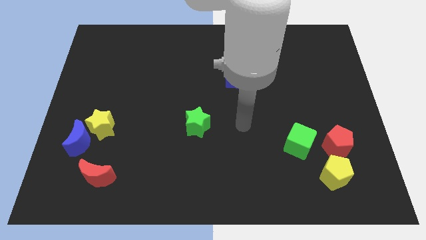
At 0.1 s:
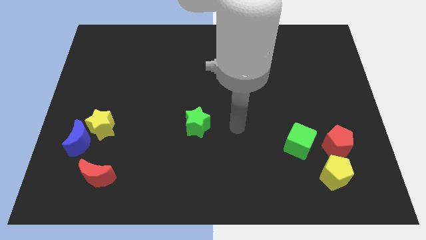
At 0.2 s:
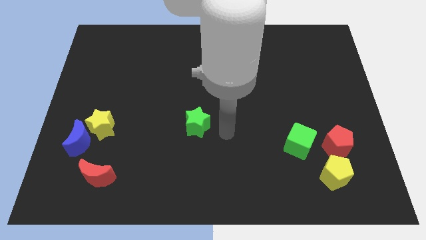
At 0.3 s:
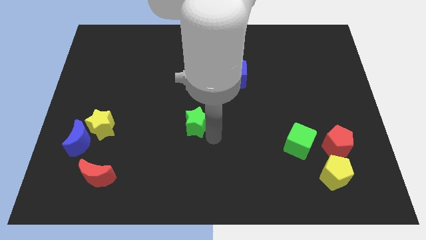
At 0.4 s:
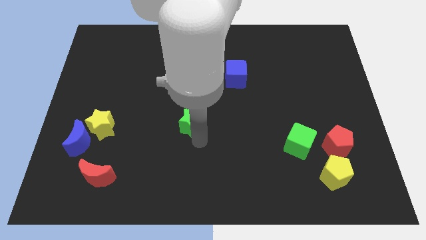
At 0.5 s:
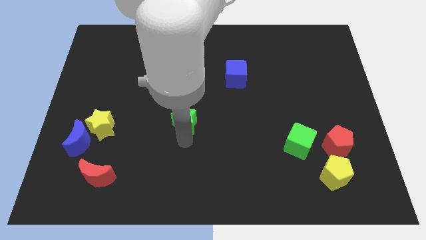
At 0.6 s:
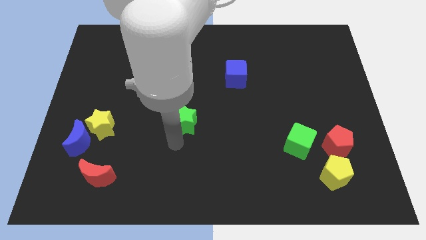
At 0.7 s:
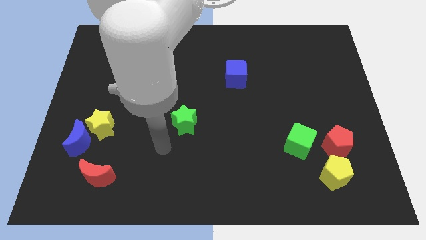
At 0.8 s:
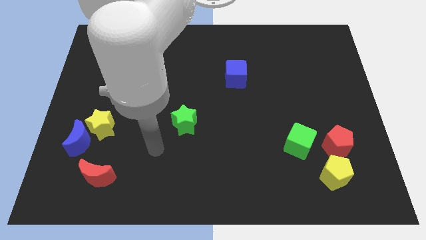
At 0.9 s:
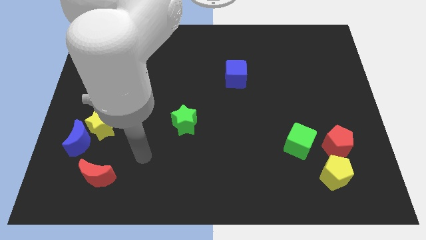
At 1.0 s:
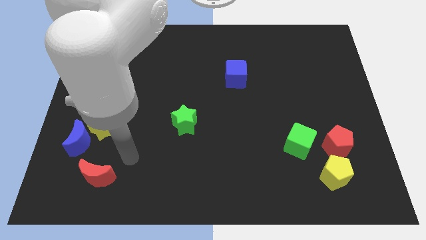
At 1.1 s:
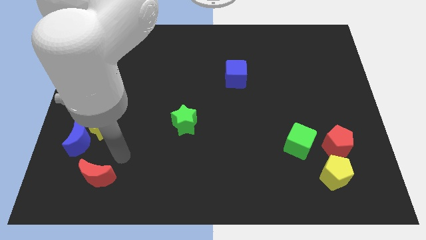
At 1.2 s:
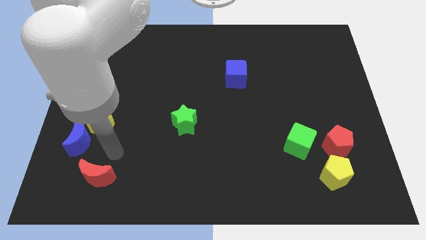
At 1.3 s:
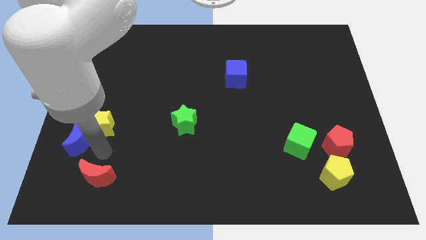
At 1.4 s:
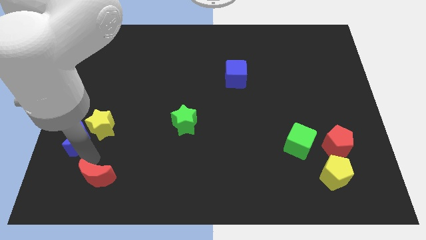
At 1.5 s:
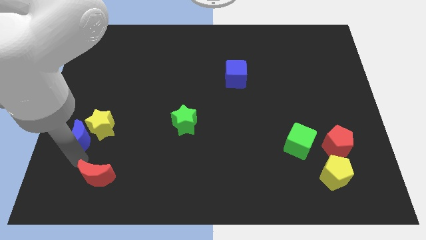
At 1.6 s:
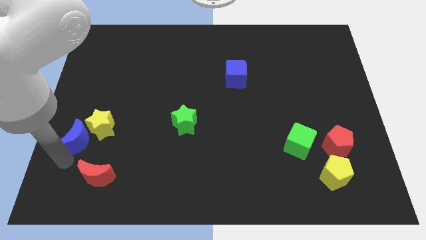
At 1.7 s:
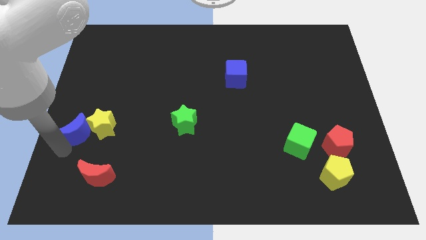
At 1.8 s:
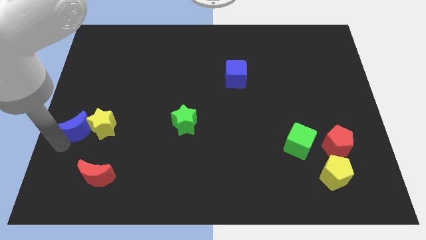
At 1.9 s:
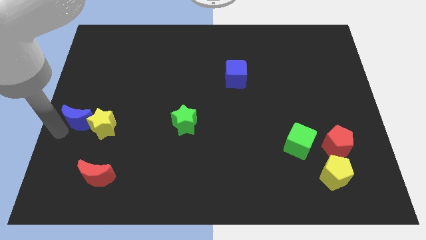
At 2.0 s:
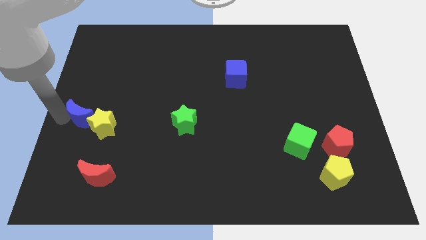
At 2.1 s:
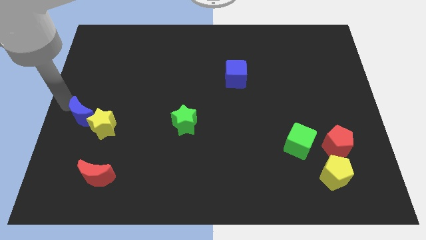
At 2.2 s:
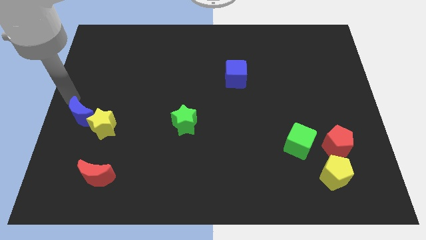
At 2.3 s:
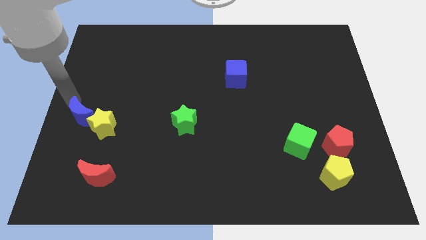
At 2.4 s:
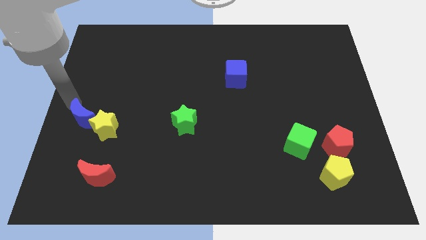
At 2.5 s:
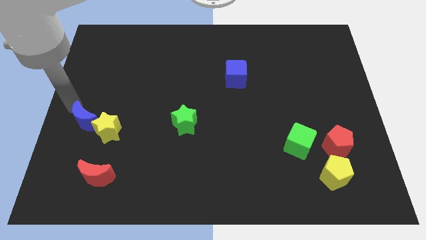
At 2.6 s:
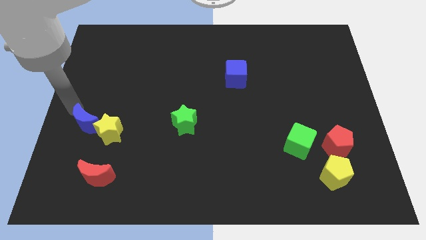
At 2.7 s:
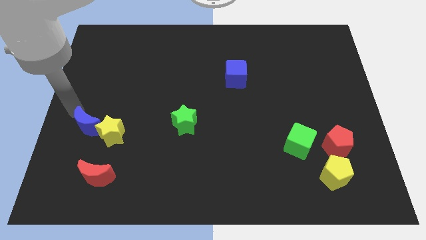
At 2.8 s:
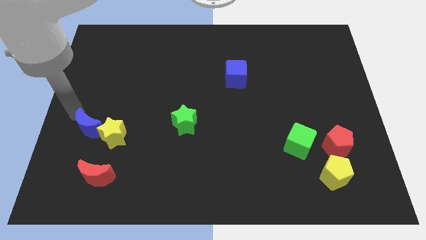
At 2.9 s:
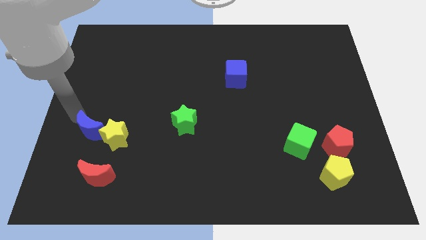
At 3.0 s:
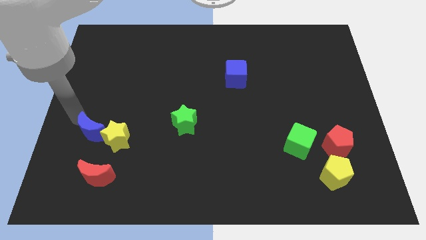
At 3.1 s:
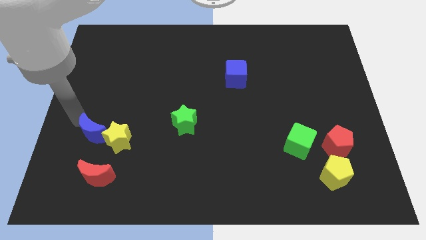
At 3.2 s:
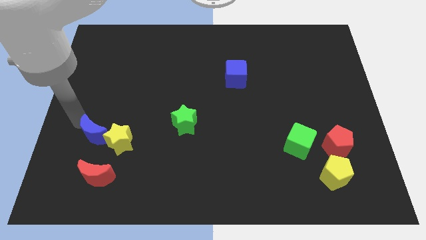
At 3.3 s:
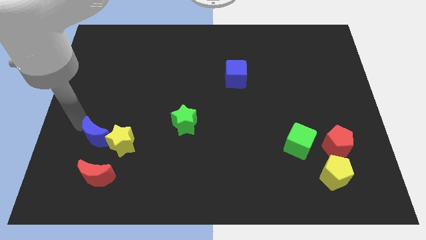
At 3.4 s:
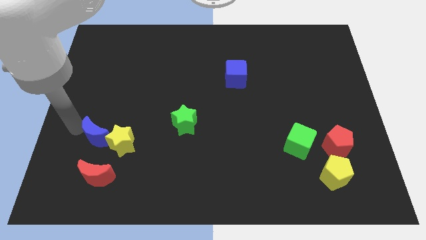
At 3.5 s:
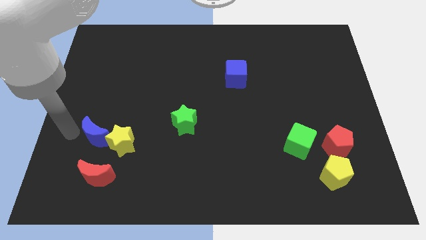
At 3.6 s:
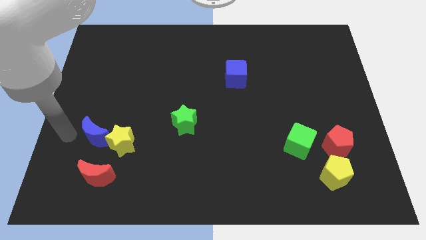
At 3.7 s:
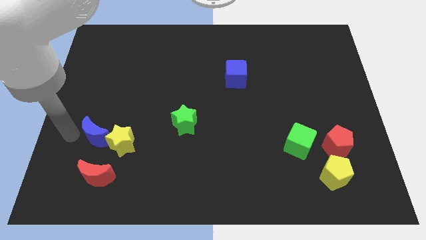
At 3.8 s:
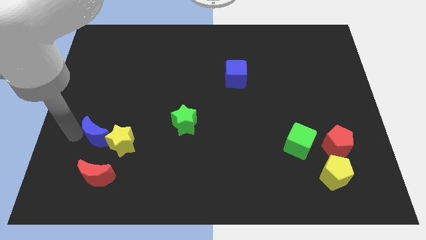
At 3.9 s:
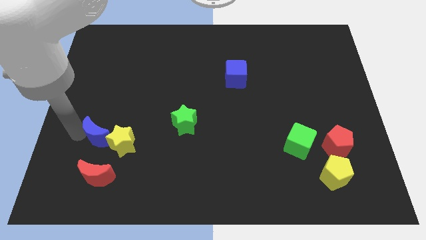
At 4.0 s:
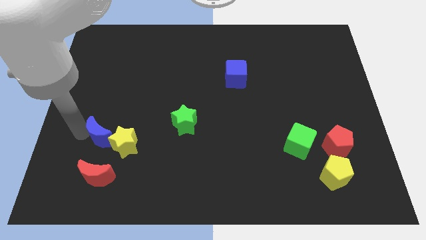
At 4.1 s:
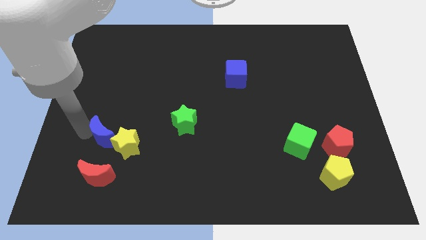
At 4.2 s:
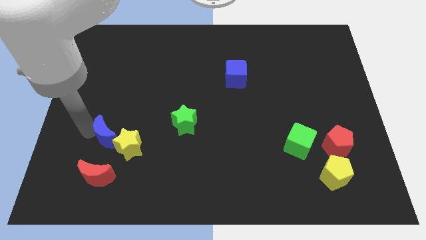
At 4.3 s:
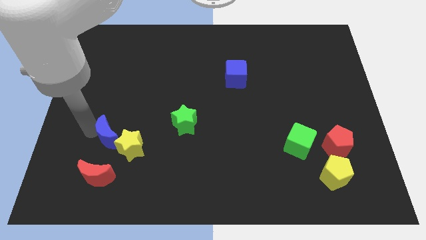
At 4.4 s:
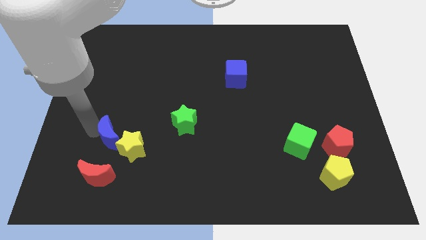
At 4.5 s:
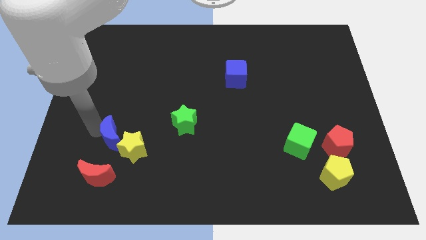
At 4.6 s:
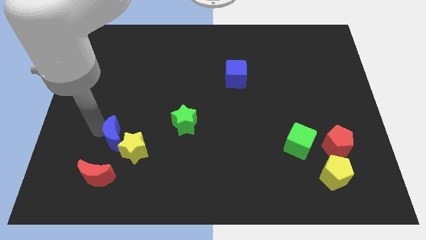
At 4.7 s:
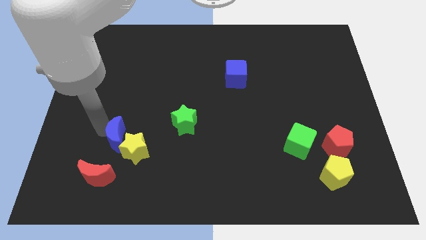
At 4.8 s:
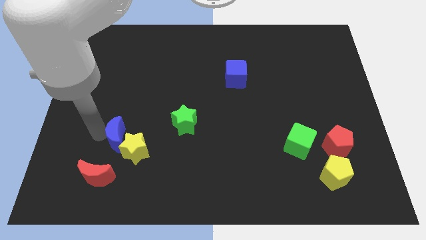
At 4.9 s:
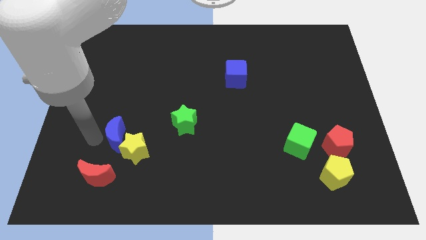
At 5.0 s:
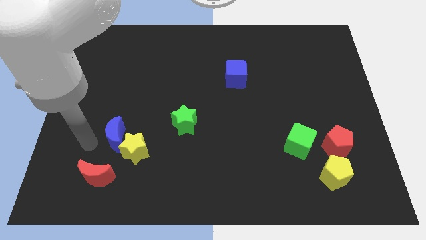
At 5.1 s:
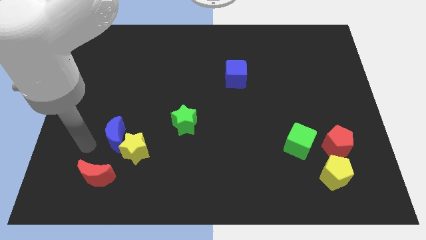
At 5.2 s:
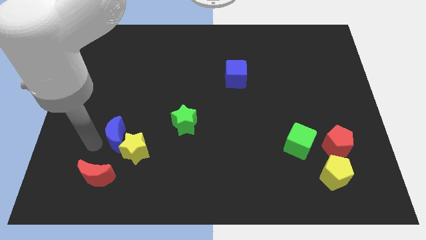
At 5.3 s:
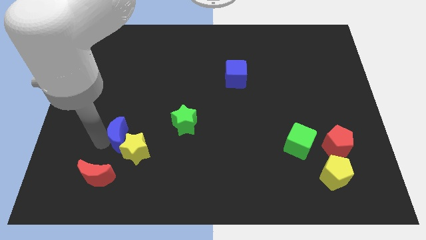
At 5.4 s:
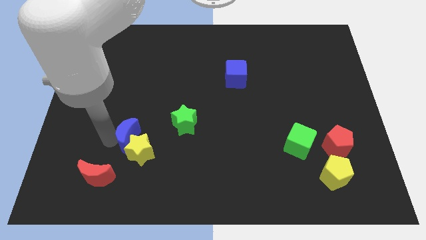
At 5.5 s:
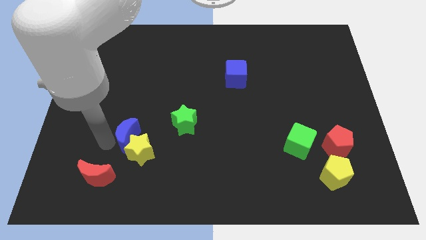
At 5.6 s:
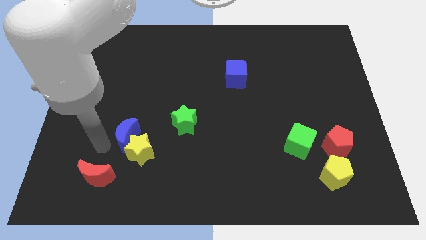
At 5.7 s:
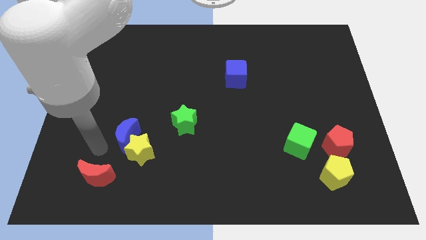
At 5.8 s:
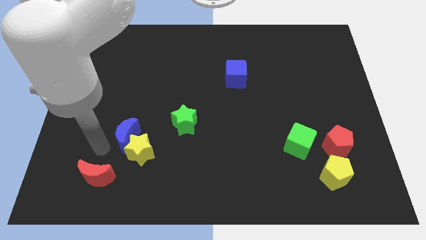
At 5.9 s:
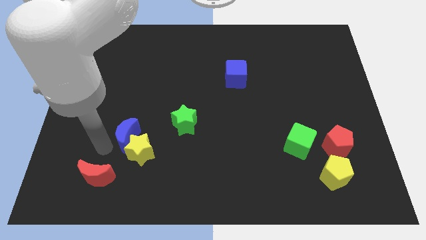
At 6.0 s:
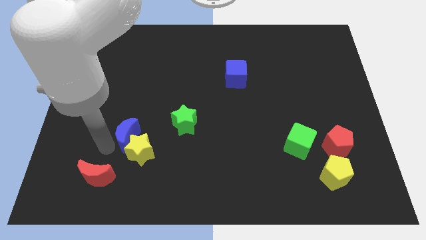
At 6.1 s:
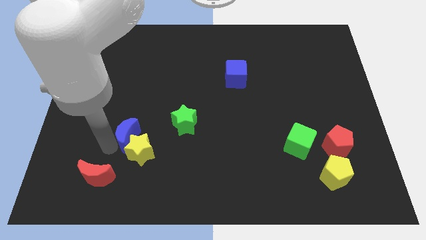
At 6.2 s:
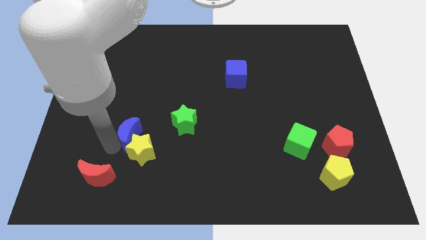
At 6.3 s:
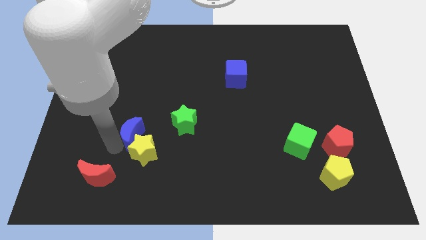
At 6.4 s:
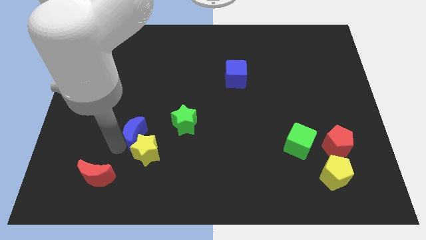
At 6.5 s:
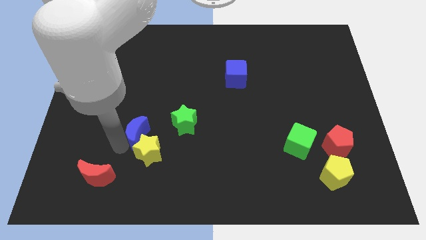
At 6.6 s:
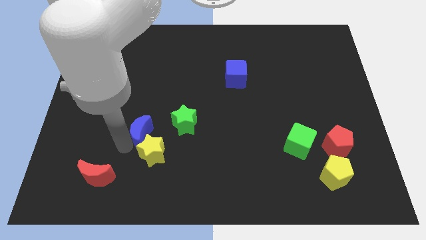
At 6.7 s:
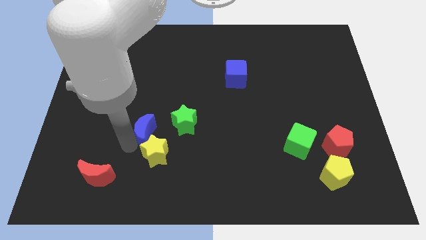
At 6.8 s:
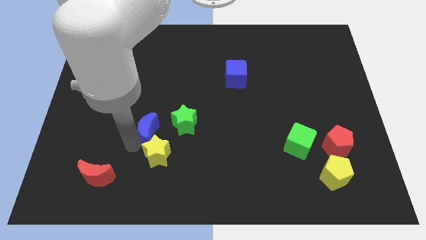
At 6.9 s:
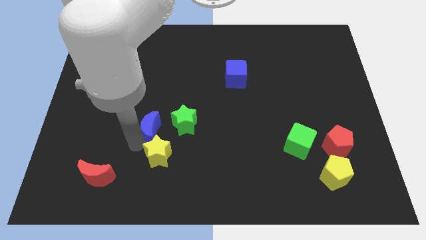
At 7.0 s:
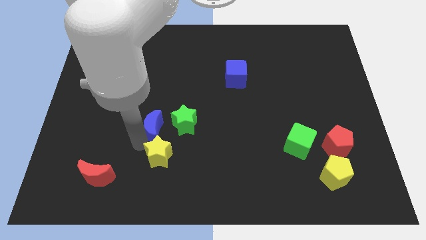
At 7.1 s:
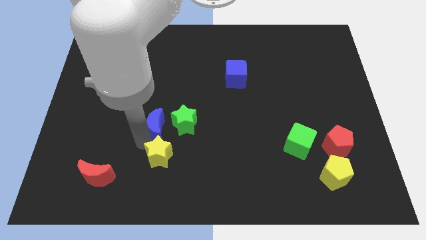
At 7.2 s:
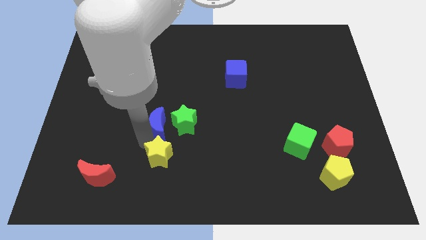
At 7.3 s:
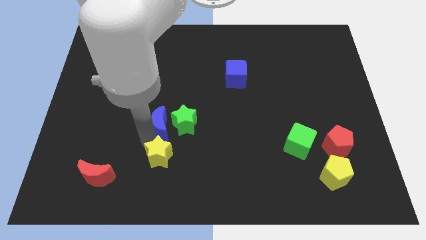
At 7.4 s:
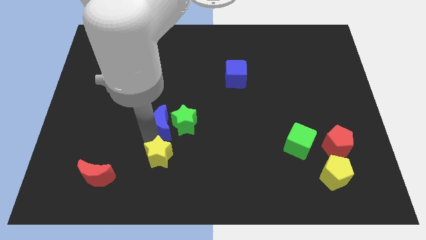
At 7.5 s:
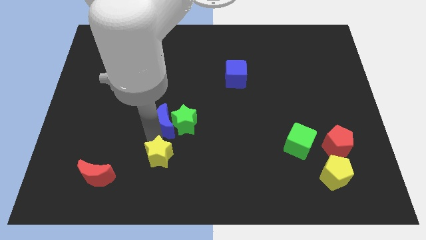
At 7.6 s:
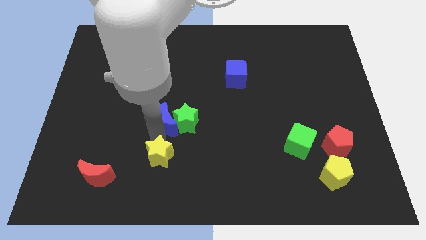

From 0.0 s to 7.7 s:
push the blue moon to the center
